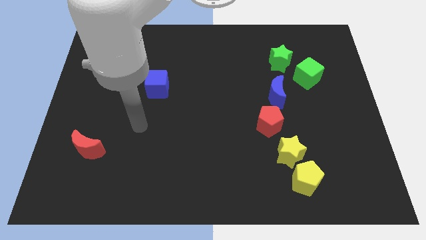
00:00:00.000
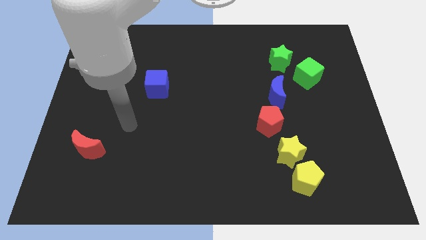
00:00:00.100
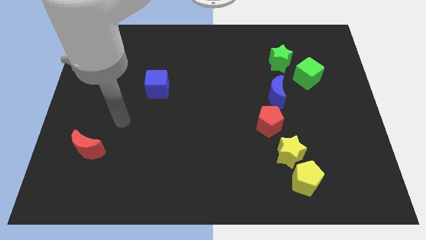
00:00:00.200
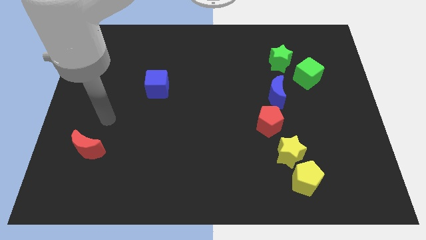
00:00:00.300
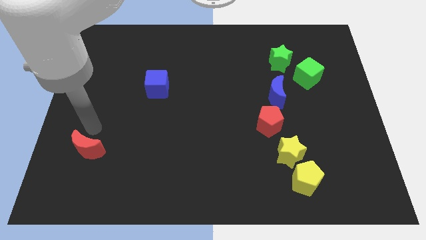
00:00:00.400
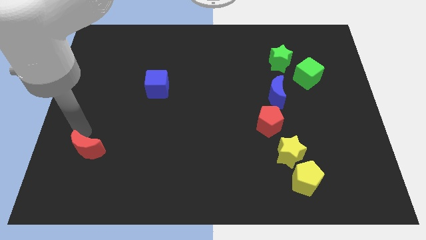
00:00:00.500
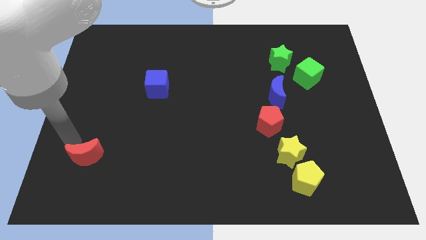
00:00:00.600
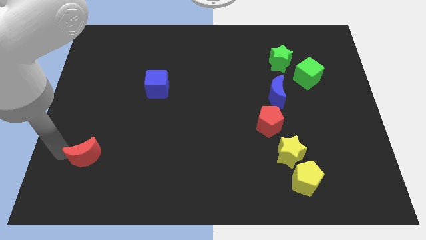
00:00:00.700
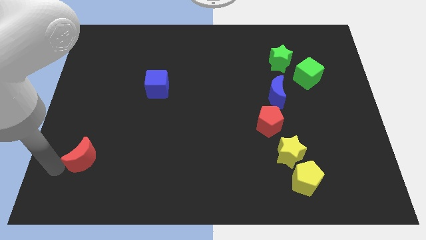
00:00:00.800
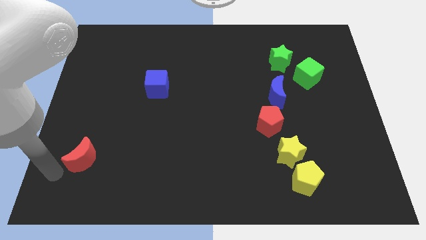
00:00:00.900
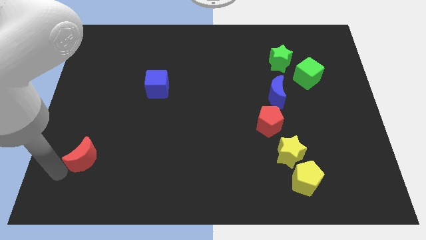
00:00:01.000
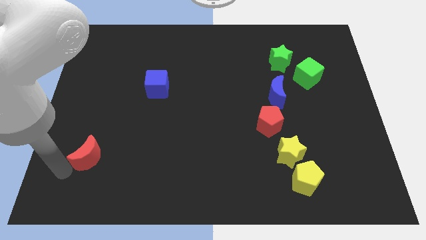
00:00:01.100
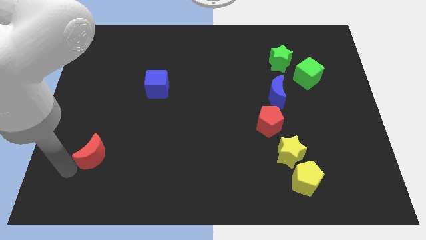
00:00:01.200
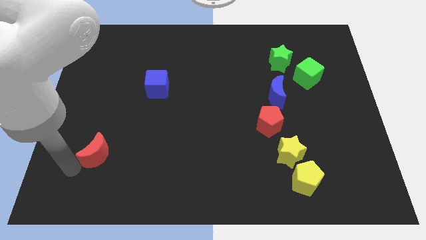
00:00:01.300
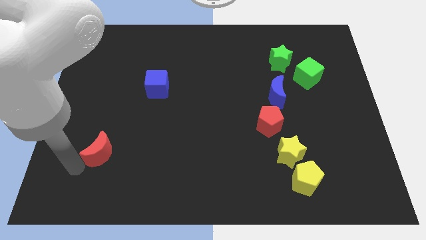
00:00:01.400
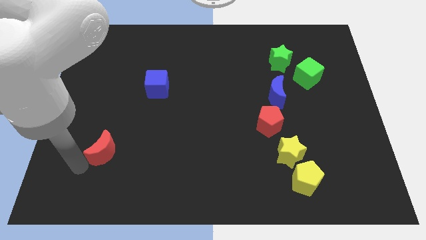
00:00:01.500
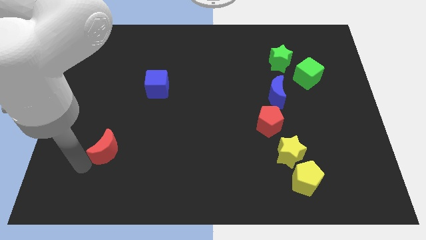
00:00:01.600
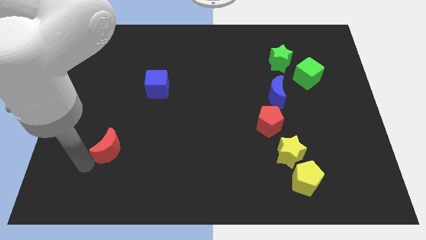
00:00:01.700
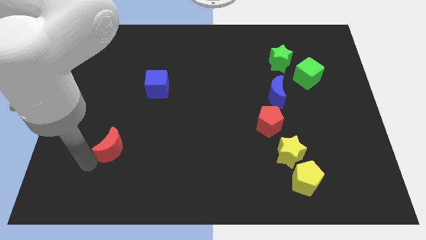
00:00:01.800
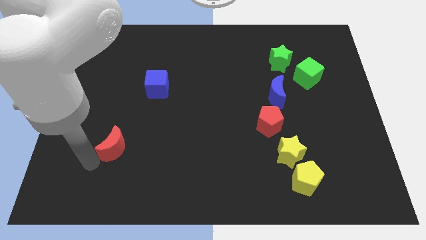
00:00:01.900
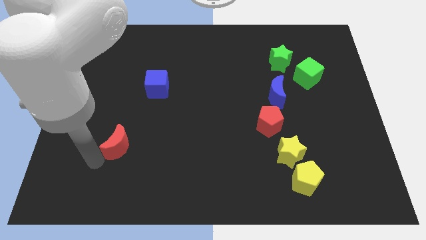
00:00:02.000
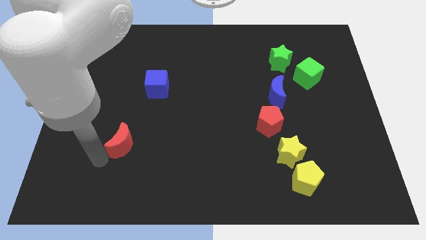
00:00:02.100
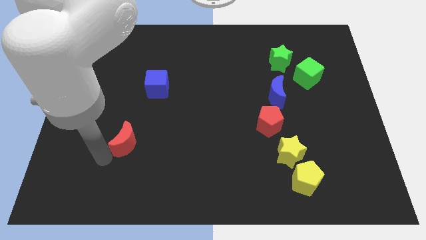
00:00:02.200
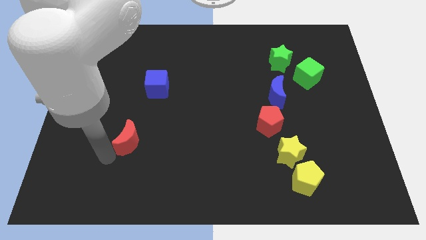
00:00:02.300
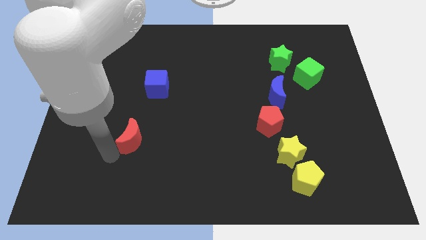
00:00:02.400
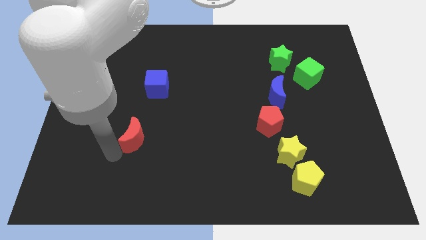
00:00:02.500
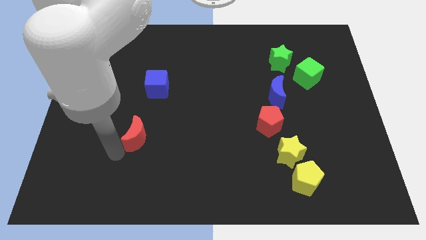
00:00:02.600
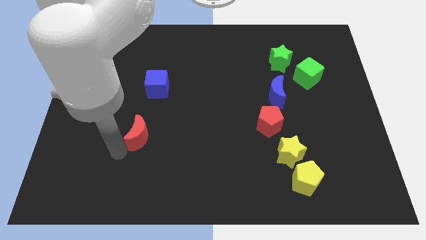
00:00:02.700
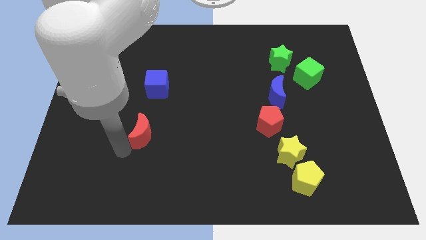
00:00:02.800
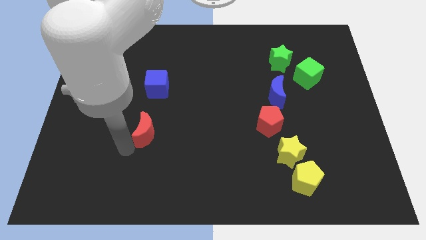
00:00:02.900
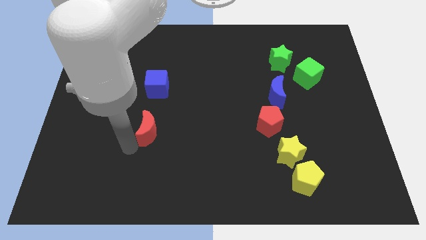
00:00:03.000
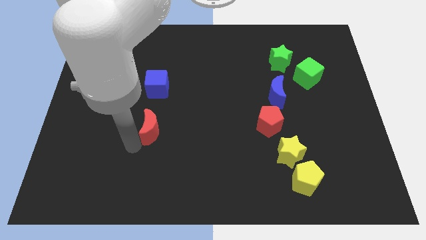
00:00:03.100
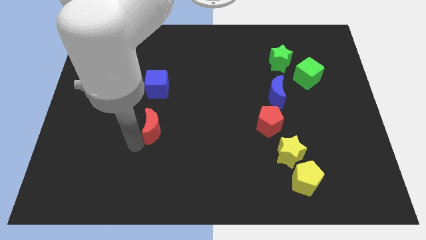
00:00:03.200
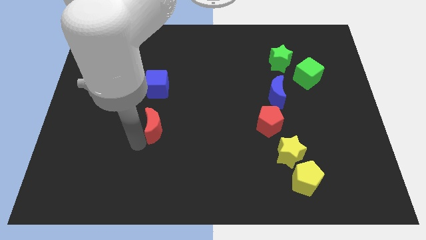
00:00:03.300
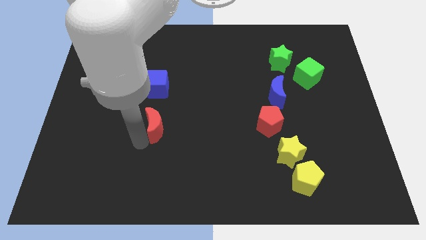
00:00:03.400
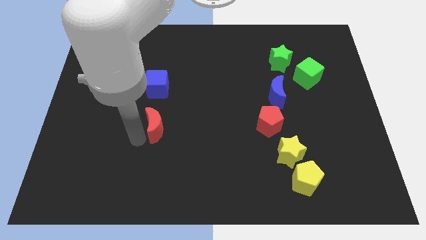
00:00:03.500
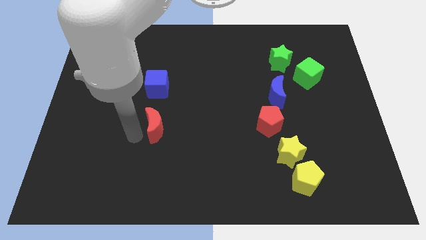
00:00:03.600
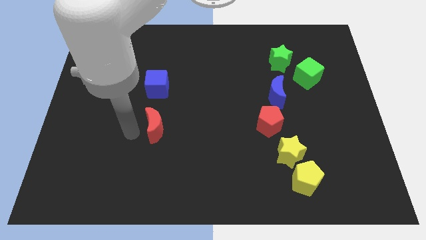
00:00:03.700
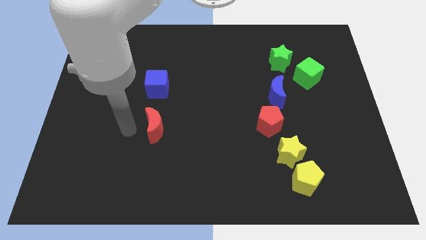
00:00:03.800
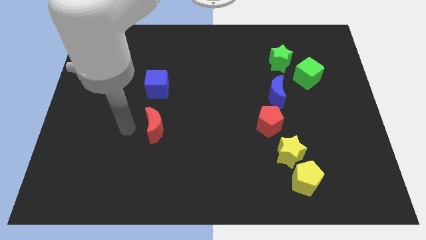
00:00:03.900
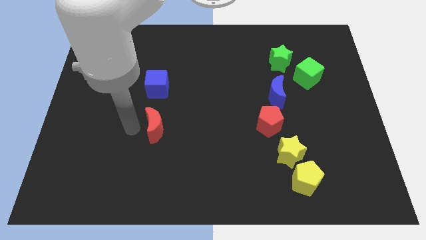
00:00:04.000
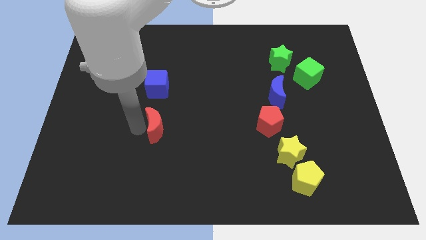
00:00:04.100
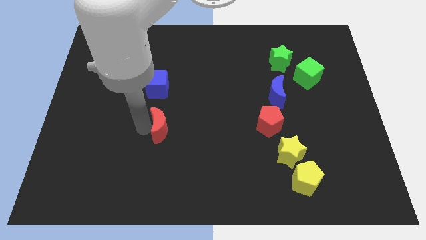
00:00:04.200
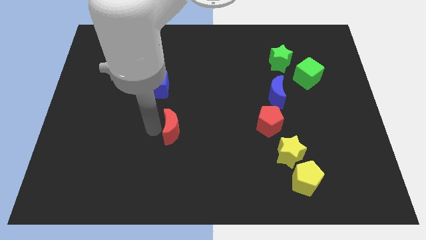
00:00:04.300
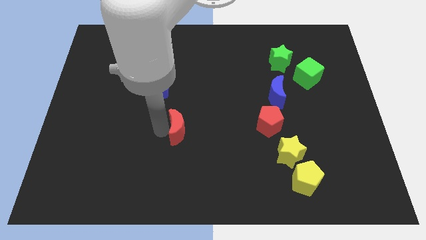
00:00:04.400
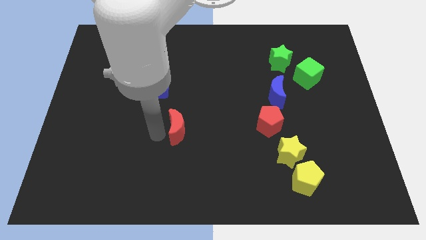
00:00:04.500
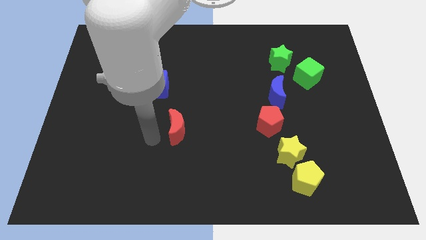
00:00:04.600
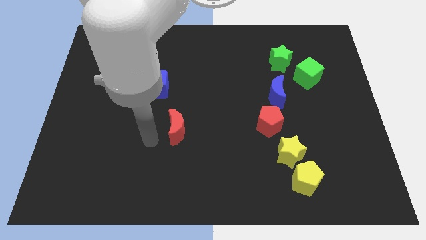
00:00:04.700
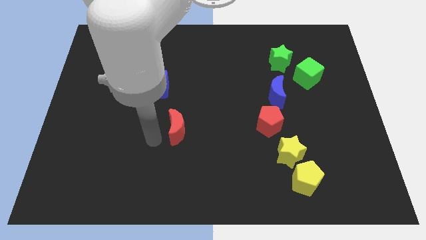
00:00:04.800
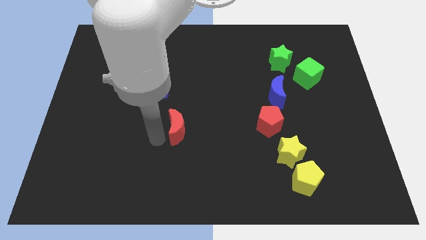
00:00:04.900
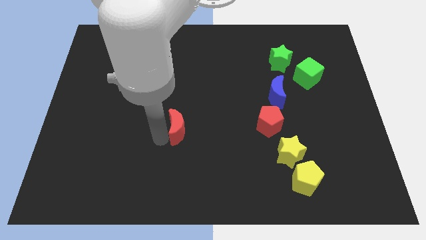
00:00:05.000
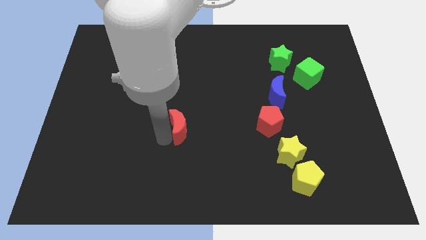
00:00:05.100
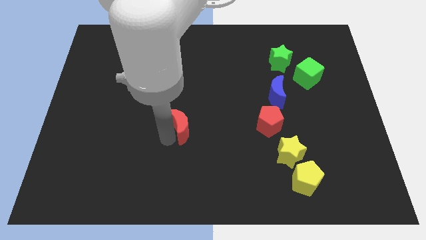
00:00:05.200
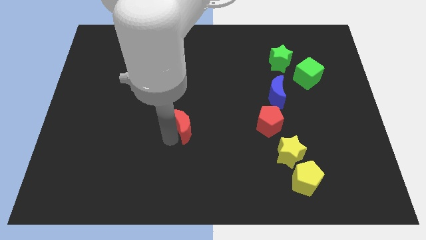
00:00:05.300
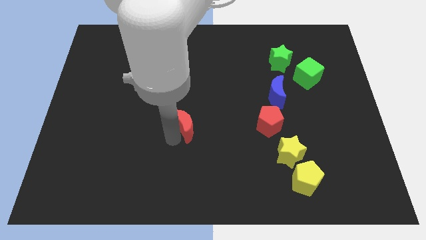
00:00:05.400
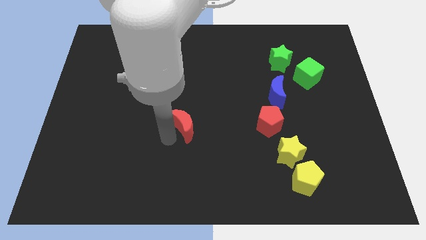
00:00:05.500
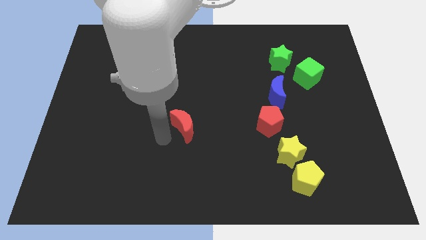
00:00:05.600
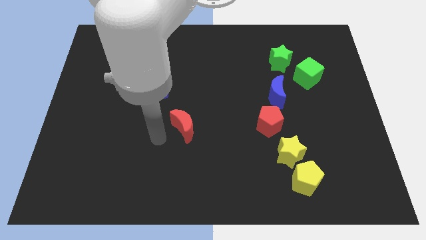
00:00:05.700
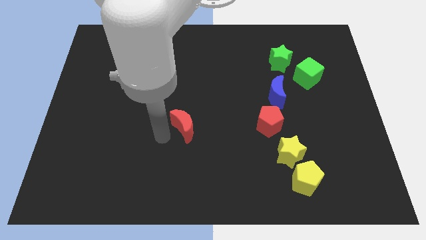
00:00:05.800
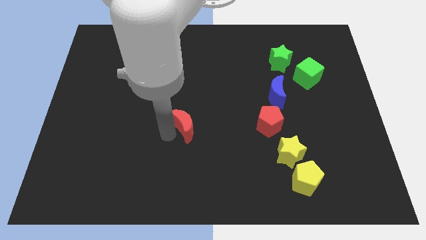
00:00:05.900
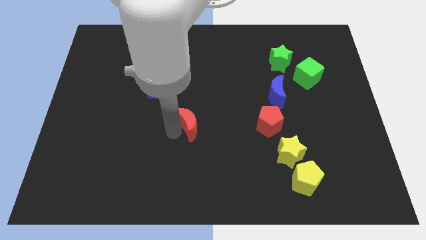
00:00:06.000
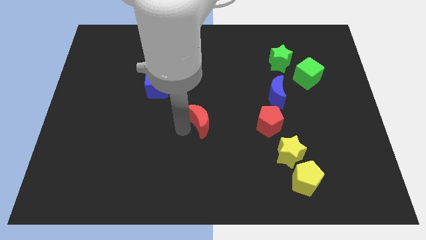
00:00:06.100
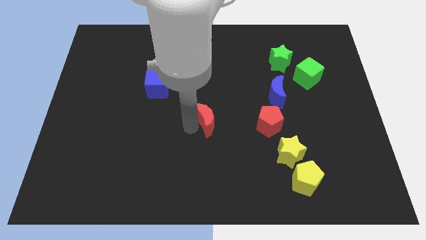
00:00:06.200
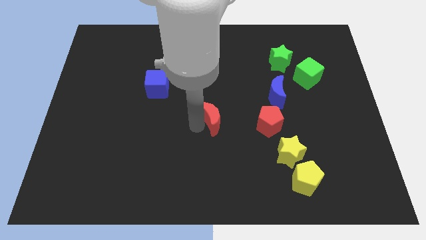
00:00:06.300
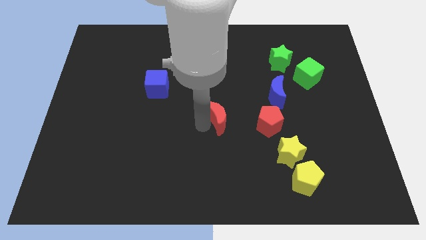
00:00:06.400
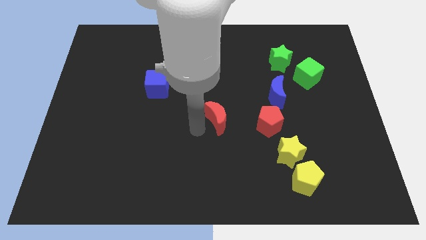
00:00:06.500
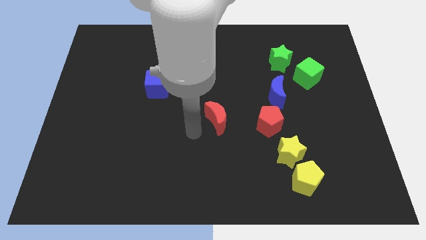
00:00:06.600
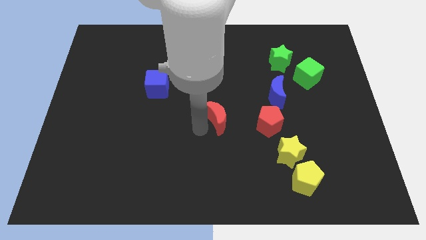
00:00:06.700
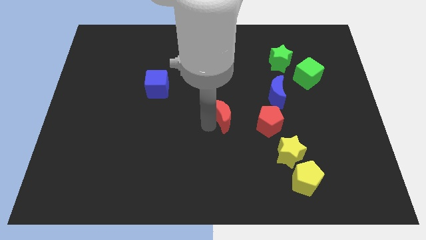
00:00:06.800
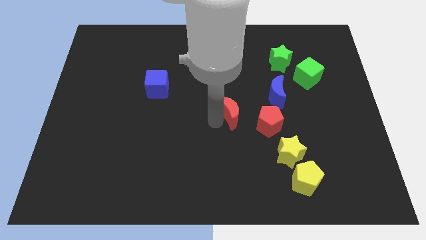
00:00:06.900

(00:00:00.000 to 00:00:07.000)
put the red moon to the top left side of the red pentagon
